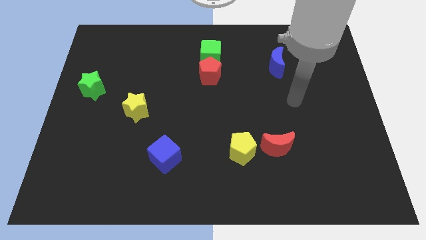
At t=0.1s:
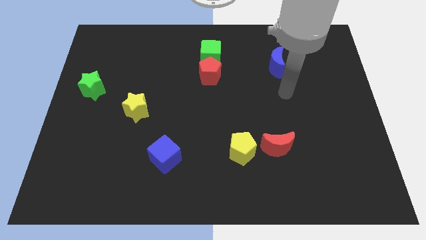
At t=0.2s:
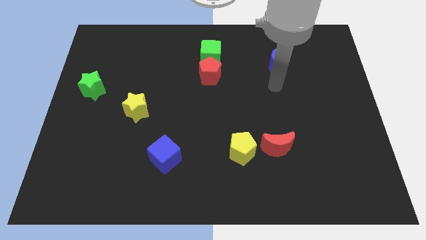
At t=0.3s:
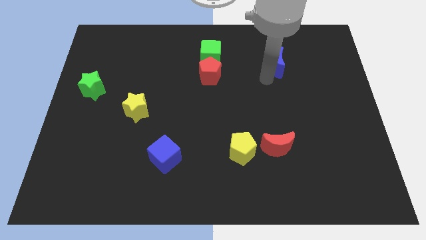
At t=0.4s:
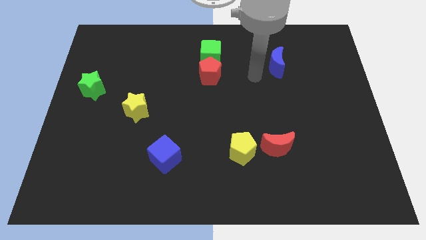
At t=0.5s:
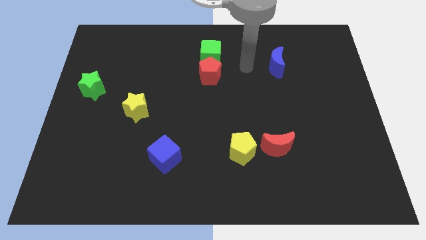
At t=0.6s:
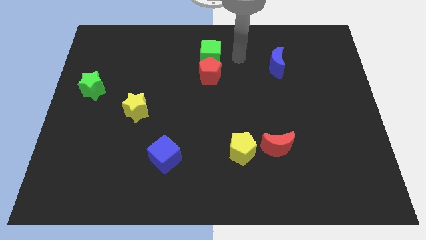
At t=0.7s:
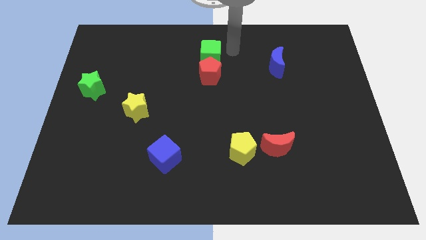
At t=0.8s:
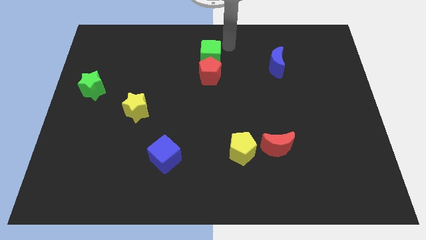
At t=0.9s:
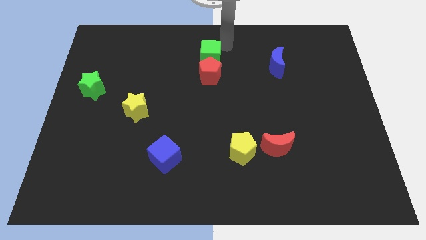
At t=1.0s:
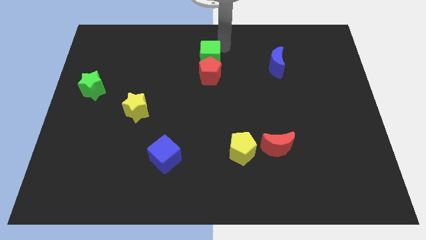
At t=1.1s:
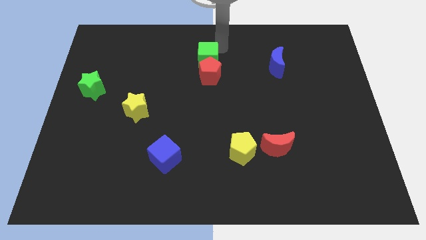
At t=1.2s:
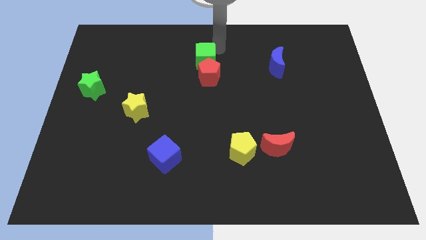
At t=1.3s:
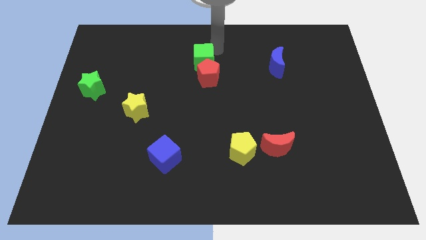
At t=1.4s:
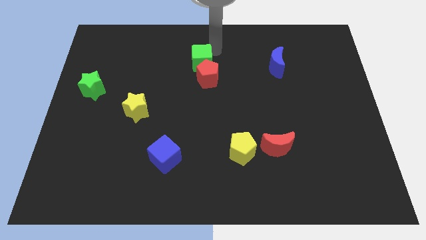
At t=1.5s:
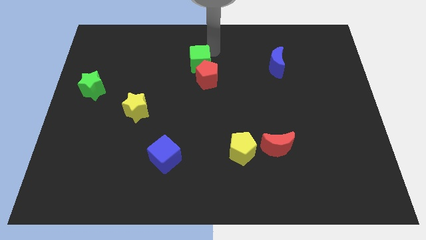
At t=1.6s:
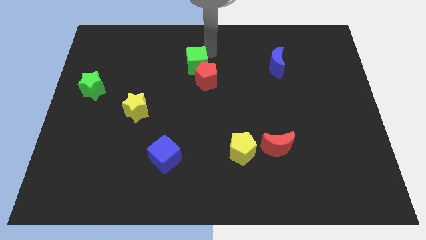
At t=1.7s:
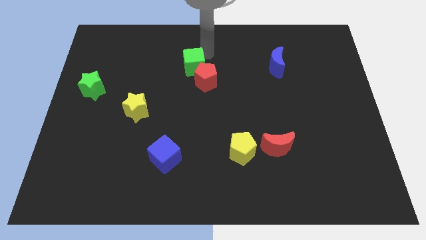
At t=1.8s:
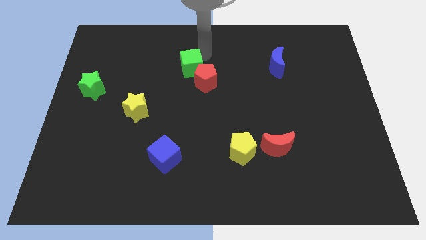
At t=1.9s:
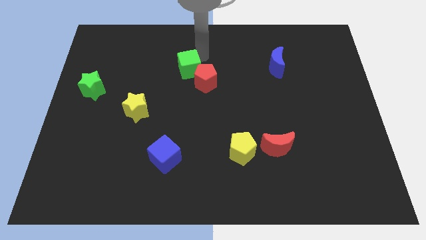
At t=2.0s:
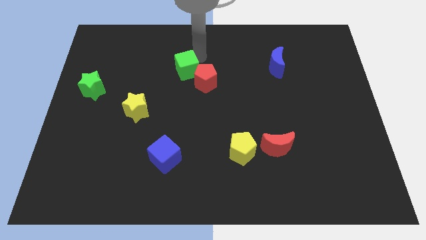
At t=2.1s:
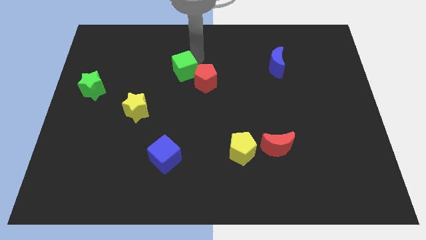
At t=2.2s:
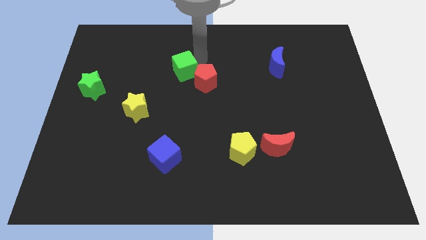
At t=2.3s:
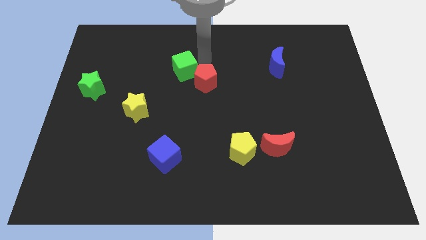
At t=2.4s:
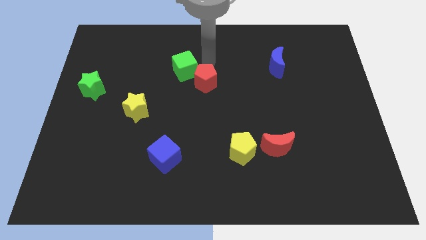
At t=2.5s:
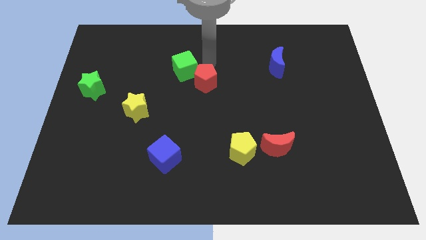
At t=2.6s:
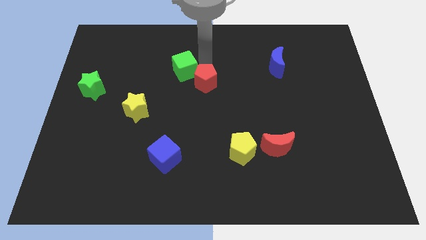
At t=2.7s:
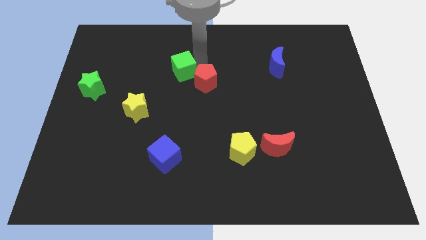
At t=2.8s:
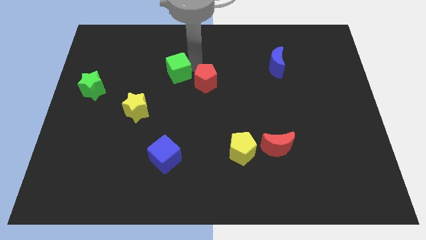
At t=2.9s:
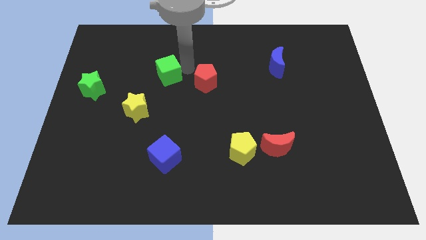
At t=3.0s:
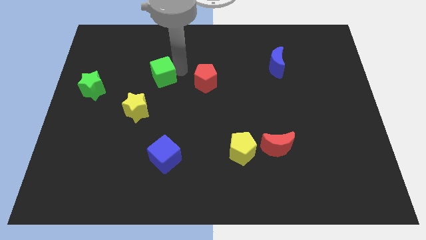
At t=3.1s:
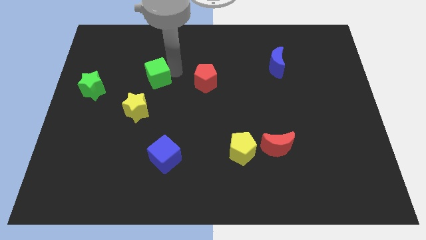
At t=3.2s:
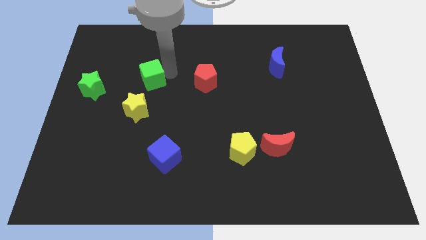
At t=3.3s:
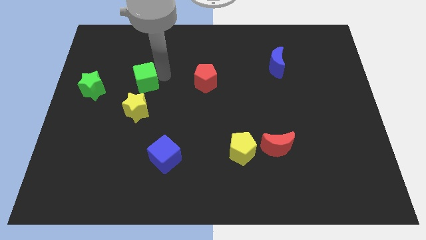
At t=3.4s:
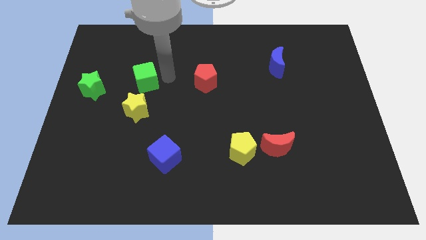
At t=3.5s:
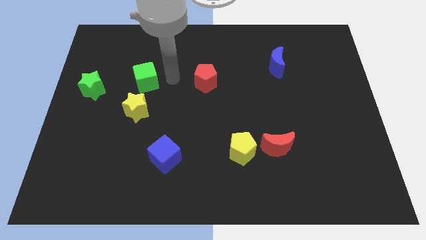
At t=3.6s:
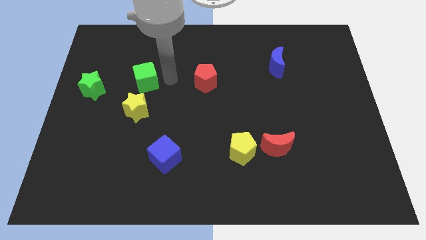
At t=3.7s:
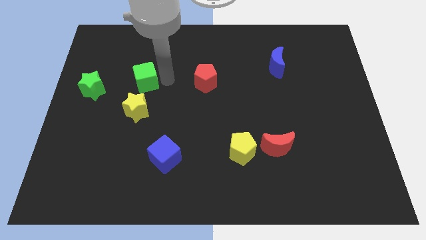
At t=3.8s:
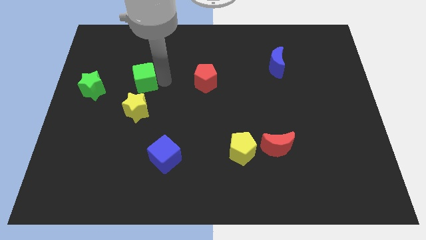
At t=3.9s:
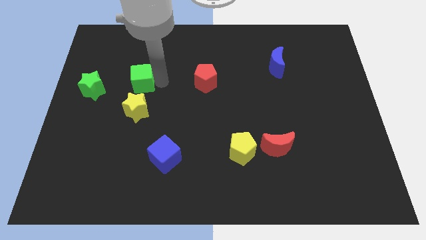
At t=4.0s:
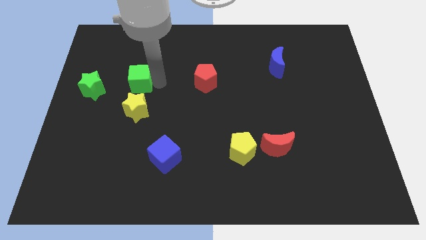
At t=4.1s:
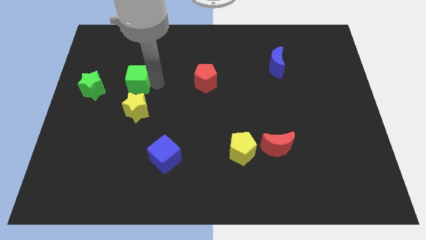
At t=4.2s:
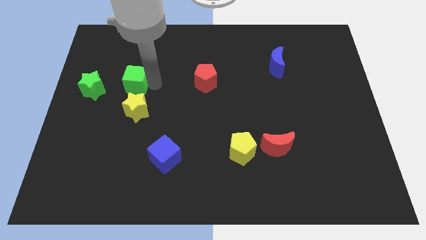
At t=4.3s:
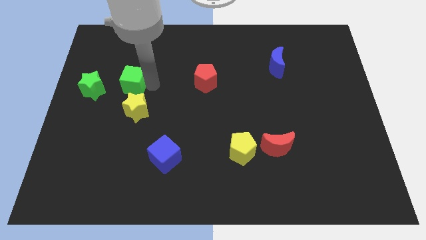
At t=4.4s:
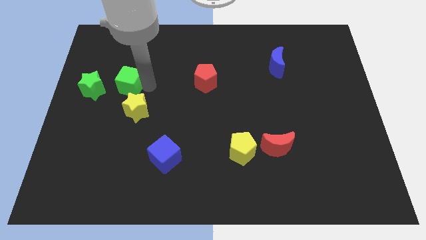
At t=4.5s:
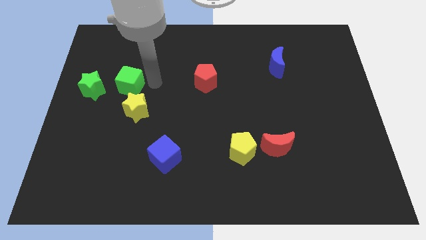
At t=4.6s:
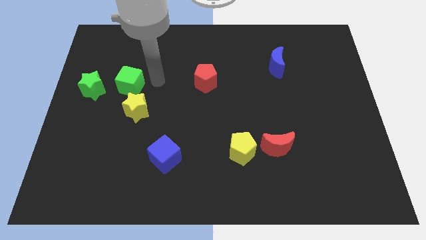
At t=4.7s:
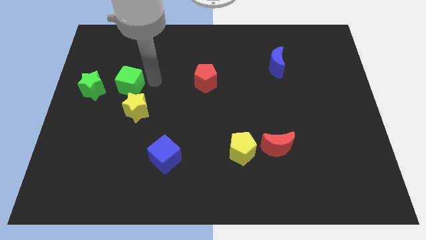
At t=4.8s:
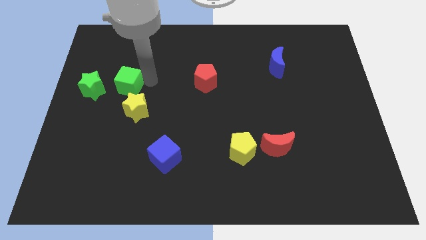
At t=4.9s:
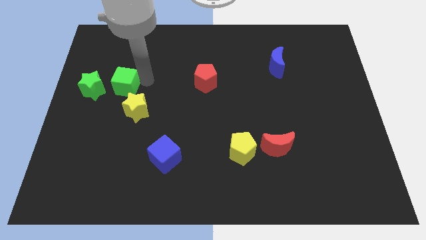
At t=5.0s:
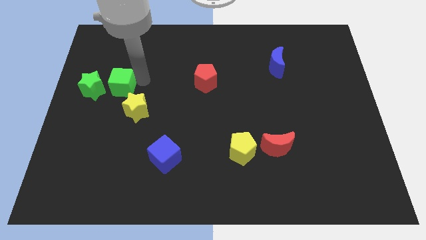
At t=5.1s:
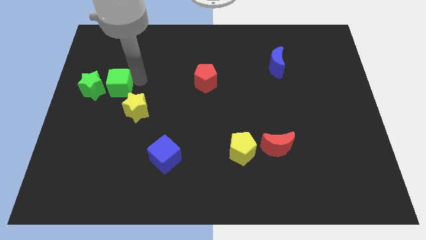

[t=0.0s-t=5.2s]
slide the green cube to the green star

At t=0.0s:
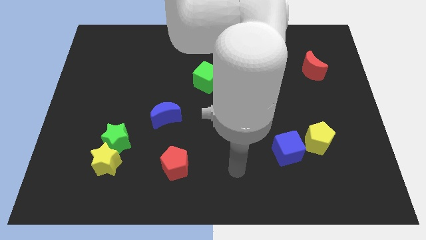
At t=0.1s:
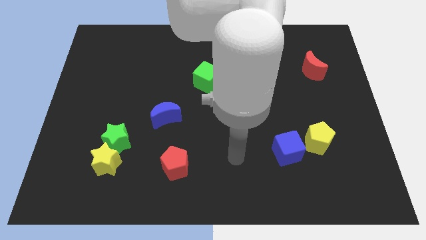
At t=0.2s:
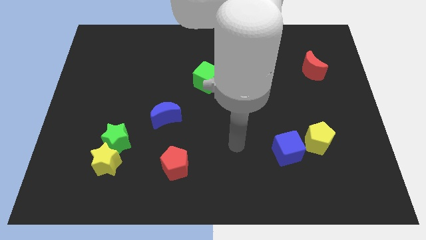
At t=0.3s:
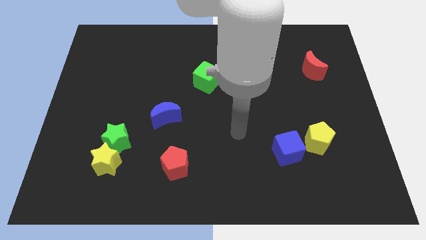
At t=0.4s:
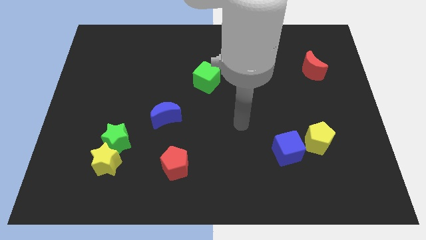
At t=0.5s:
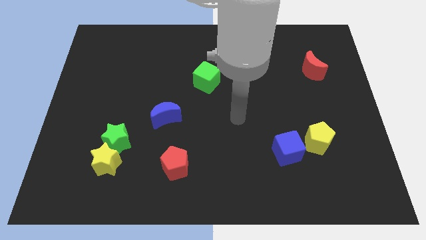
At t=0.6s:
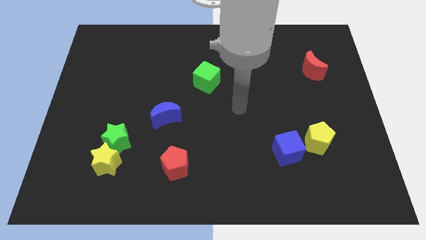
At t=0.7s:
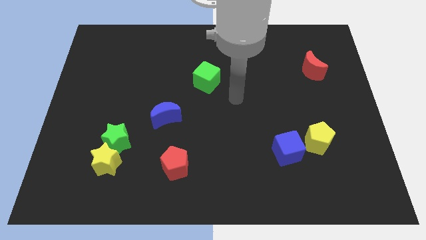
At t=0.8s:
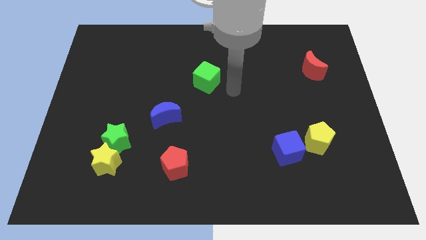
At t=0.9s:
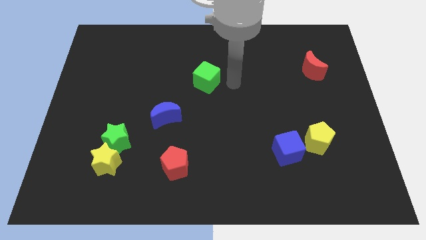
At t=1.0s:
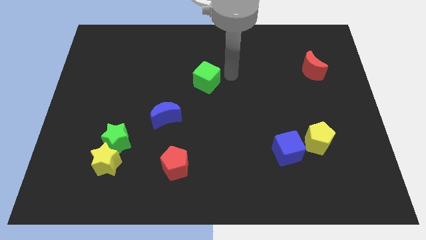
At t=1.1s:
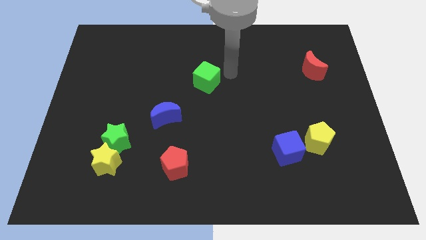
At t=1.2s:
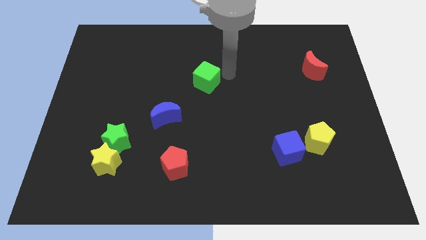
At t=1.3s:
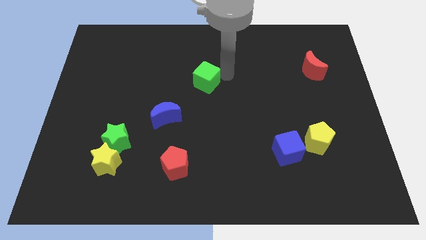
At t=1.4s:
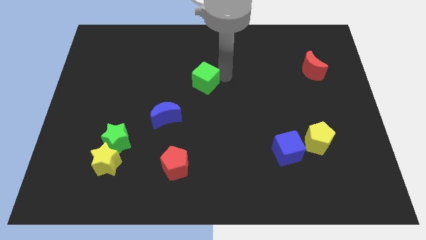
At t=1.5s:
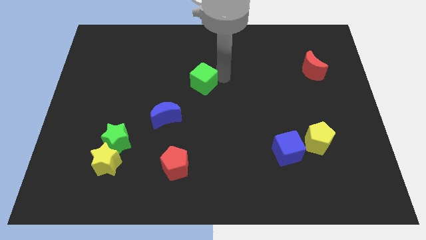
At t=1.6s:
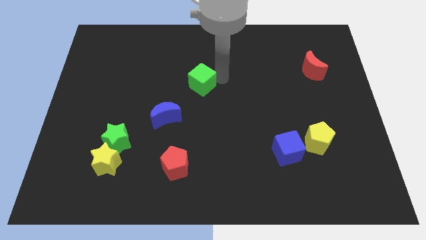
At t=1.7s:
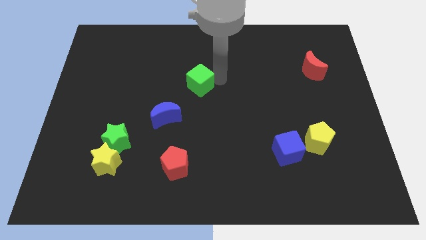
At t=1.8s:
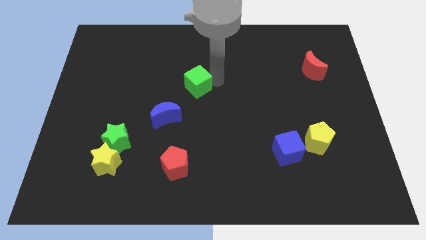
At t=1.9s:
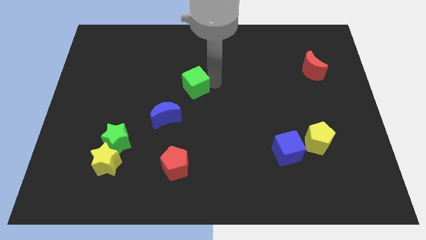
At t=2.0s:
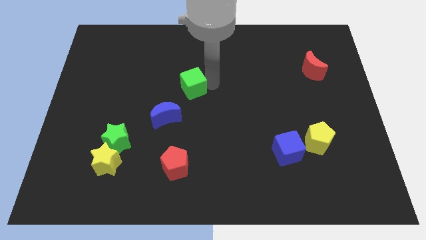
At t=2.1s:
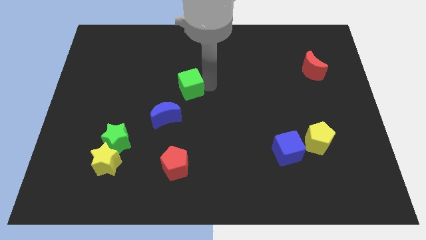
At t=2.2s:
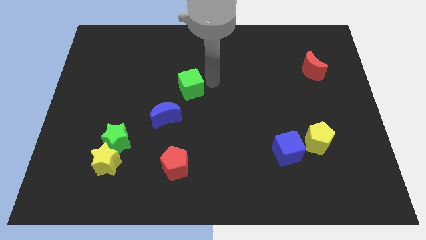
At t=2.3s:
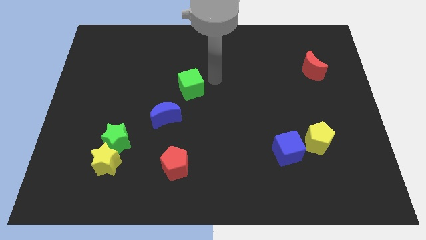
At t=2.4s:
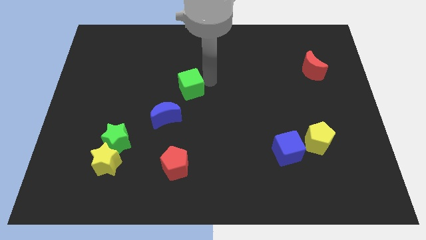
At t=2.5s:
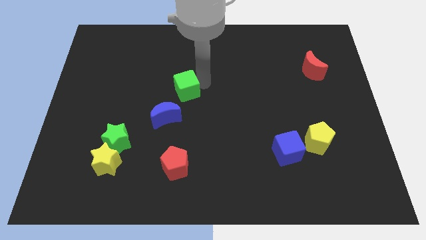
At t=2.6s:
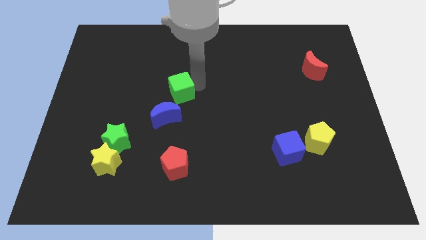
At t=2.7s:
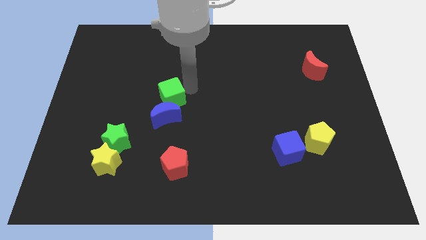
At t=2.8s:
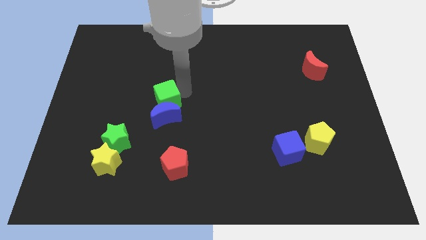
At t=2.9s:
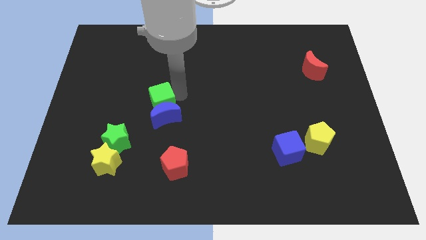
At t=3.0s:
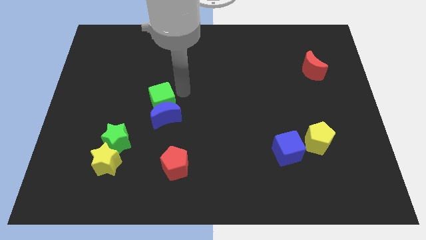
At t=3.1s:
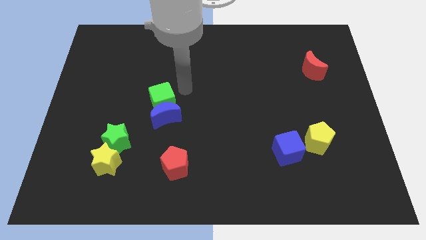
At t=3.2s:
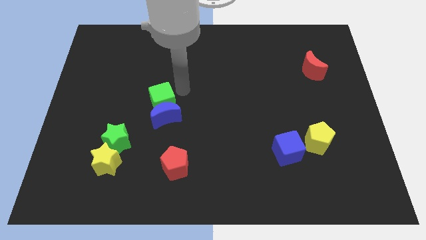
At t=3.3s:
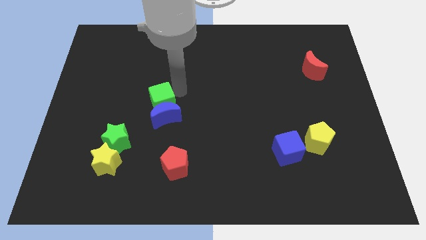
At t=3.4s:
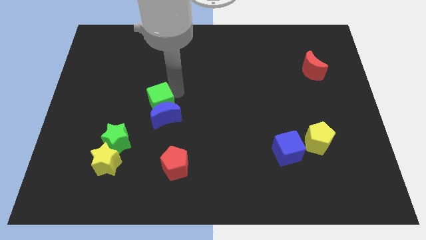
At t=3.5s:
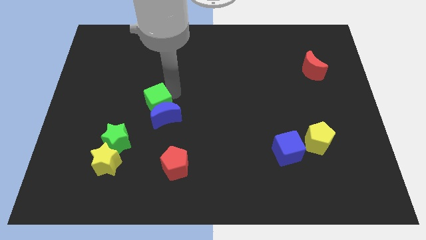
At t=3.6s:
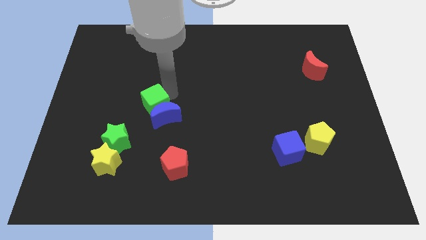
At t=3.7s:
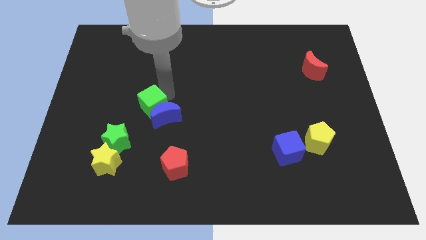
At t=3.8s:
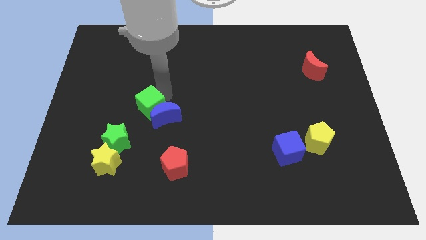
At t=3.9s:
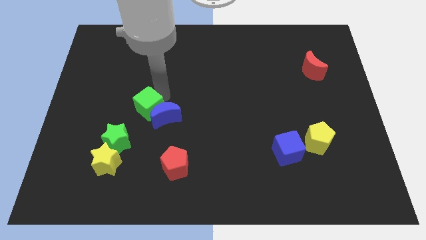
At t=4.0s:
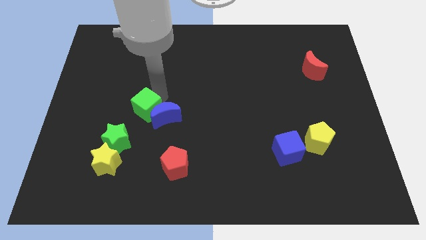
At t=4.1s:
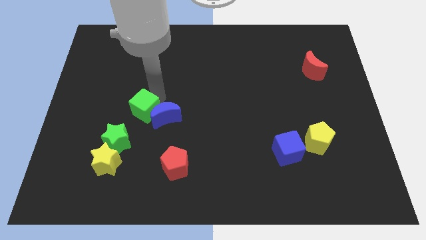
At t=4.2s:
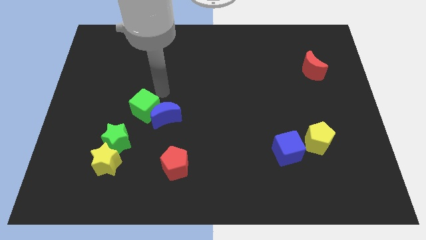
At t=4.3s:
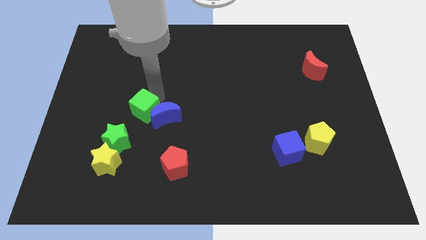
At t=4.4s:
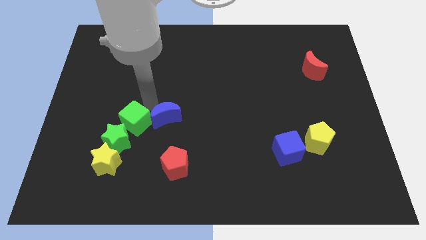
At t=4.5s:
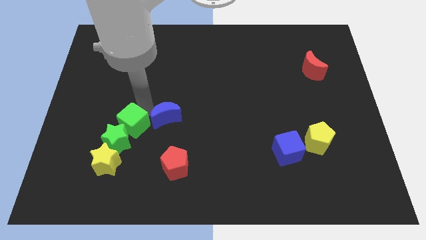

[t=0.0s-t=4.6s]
put the green cube close to the green star
